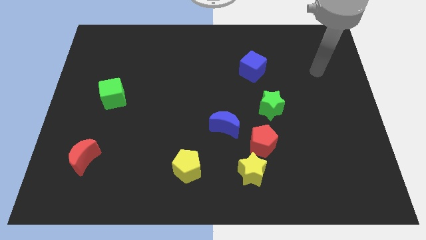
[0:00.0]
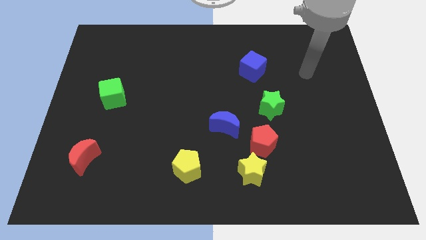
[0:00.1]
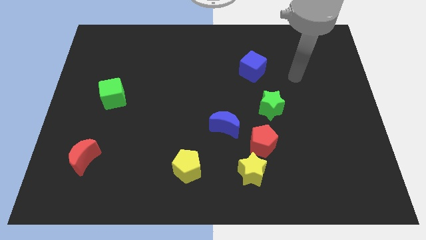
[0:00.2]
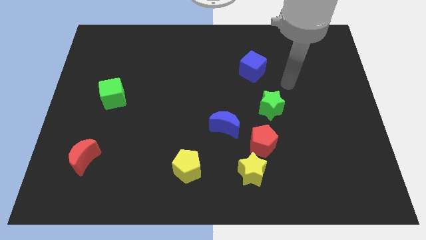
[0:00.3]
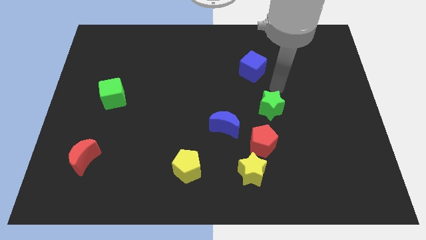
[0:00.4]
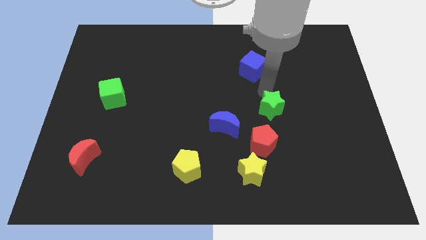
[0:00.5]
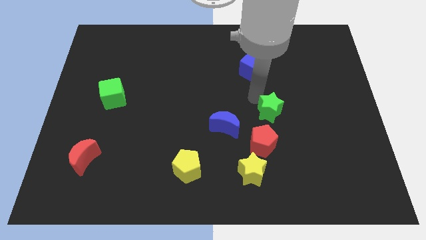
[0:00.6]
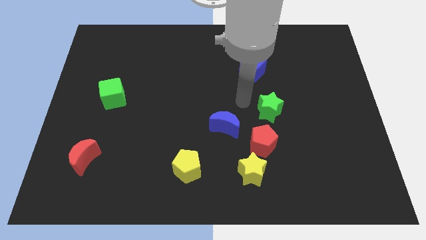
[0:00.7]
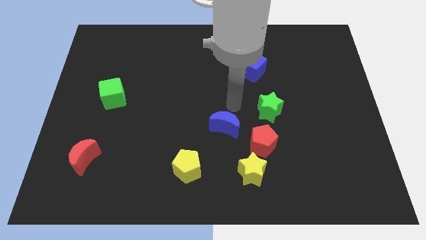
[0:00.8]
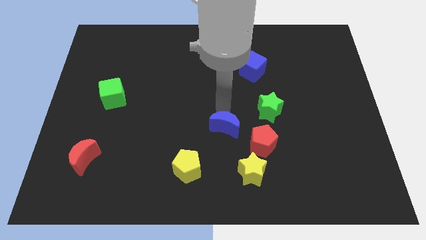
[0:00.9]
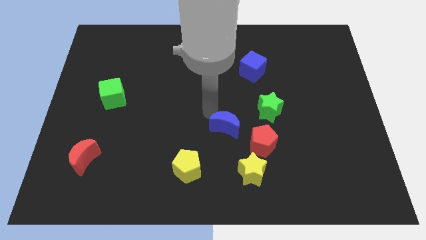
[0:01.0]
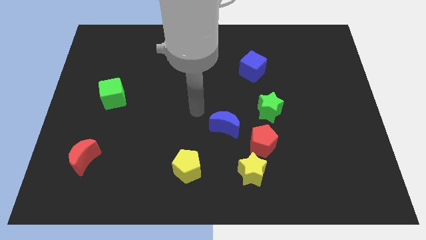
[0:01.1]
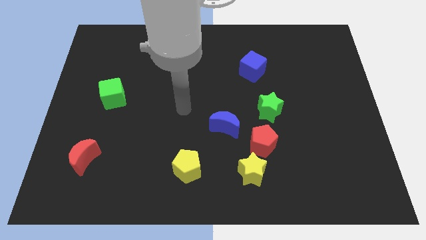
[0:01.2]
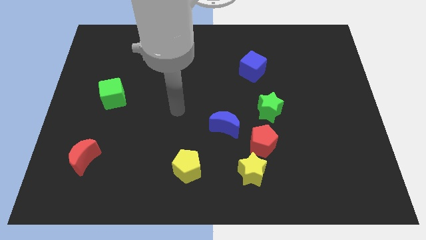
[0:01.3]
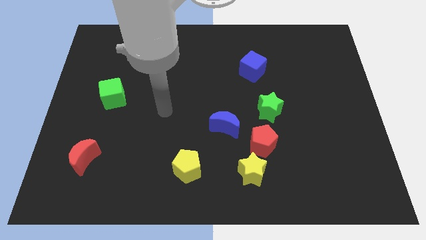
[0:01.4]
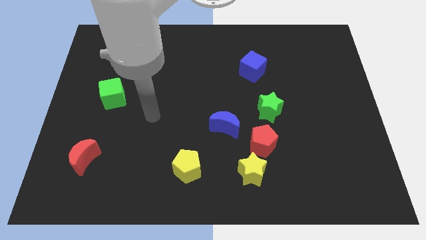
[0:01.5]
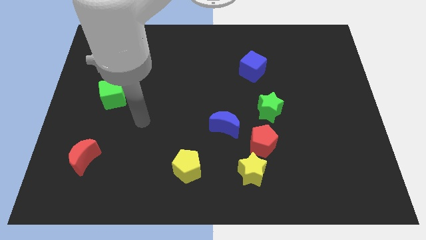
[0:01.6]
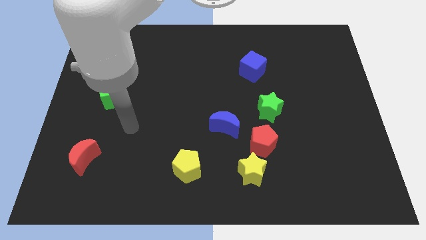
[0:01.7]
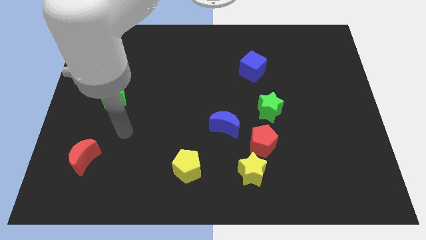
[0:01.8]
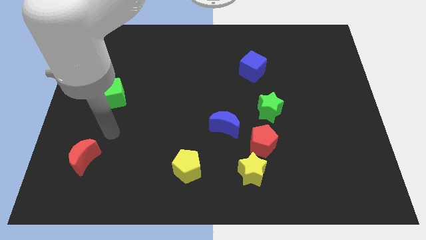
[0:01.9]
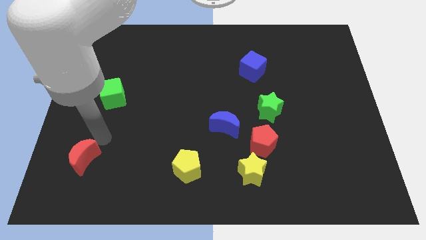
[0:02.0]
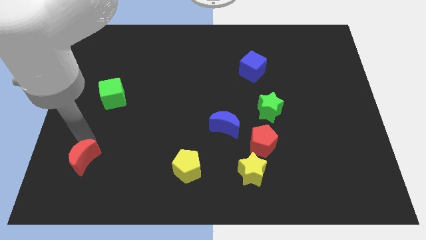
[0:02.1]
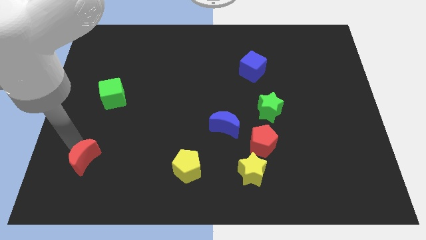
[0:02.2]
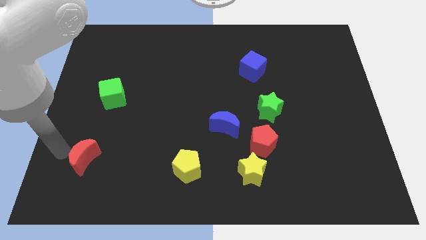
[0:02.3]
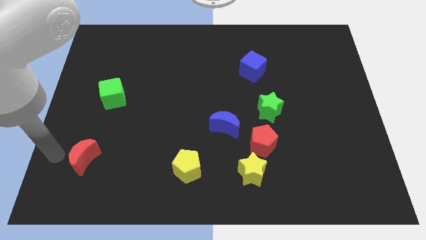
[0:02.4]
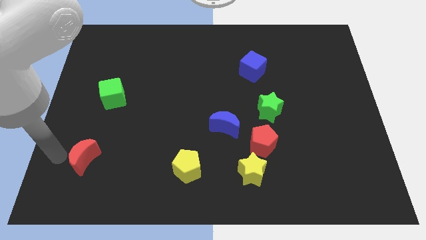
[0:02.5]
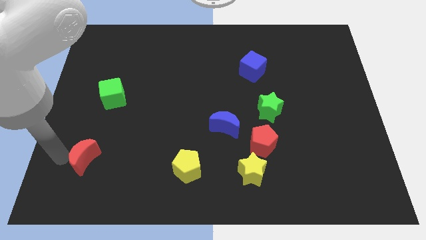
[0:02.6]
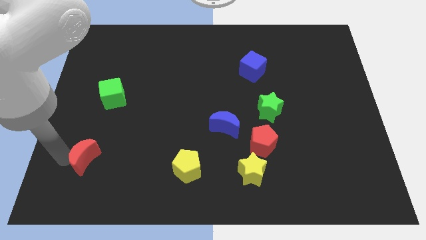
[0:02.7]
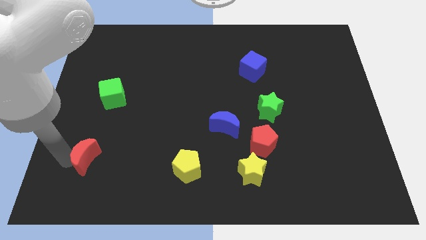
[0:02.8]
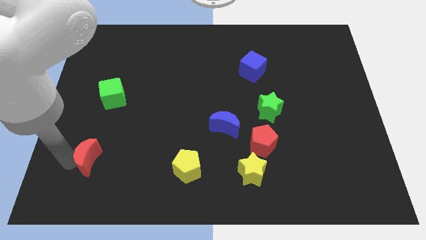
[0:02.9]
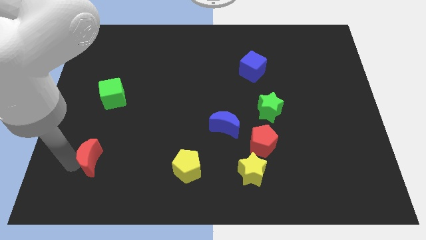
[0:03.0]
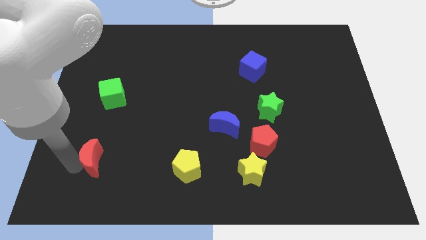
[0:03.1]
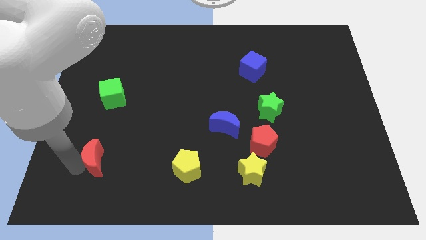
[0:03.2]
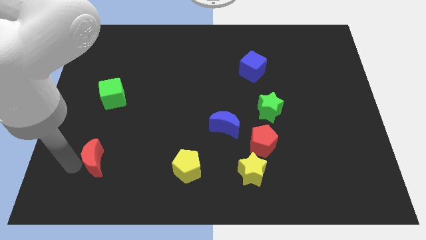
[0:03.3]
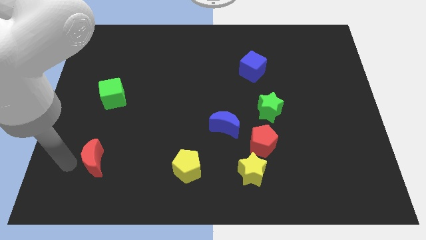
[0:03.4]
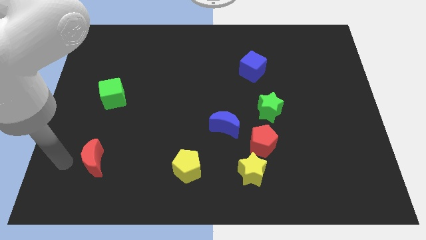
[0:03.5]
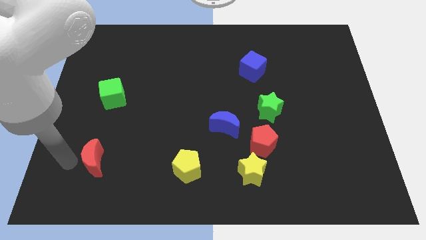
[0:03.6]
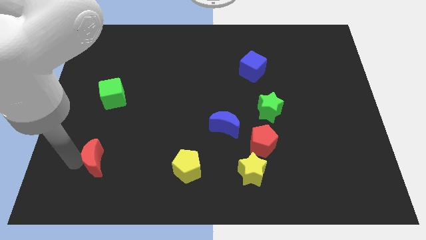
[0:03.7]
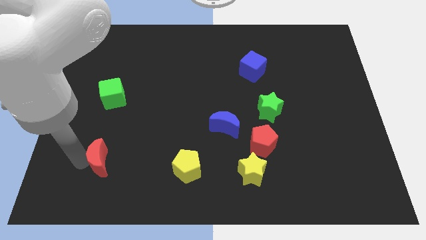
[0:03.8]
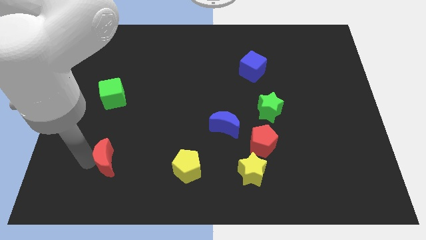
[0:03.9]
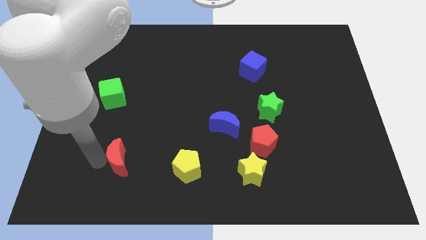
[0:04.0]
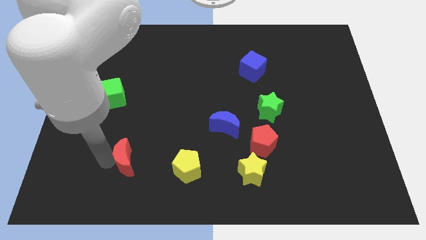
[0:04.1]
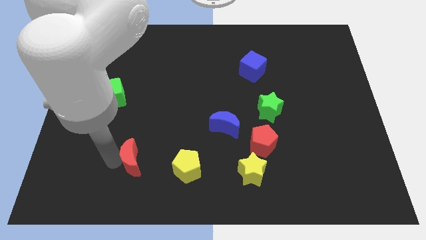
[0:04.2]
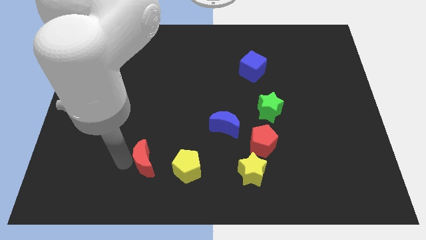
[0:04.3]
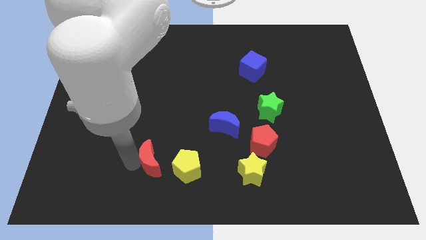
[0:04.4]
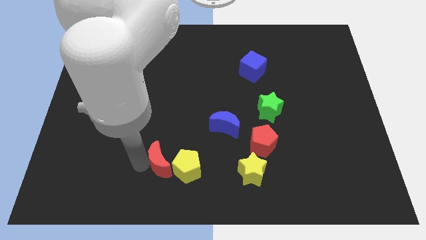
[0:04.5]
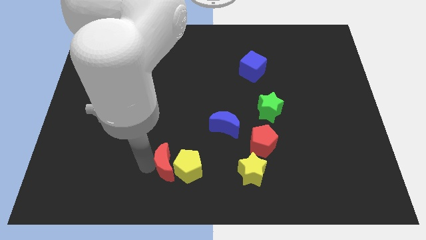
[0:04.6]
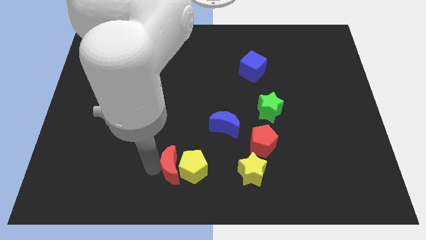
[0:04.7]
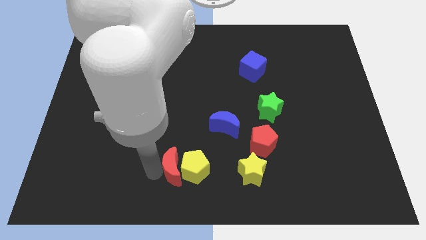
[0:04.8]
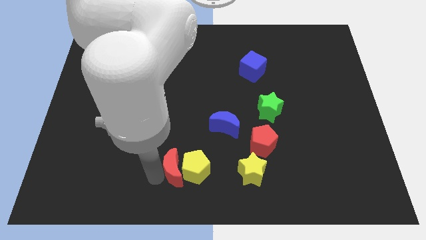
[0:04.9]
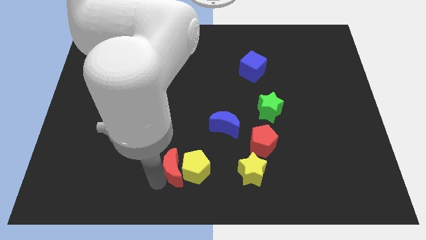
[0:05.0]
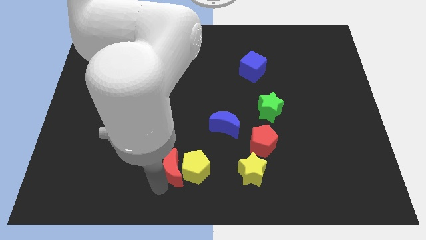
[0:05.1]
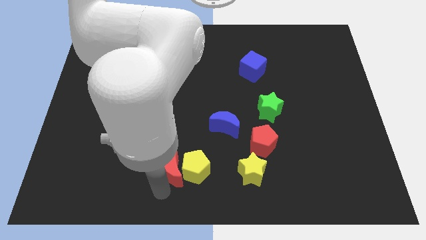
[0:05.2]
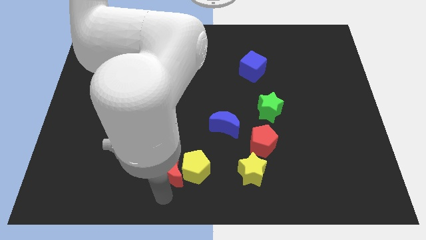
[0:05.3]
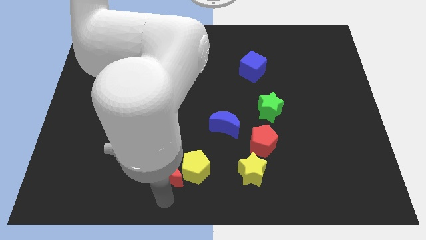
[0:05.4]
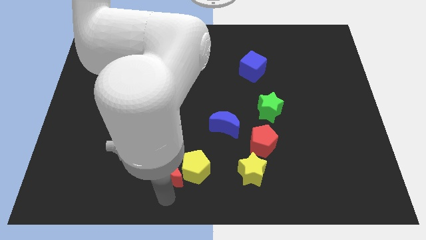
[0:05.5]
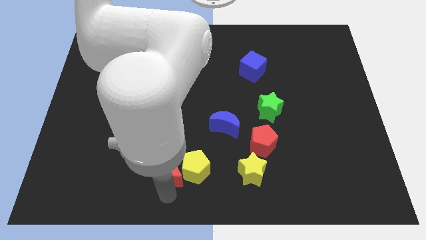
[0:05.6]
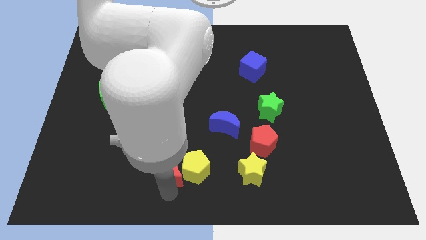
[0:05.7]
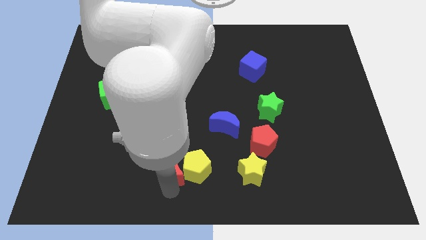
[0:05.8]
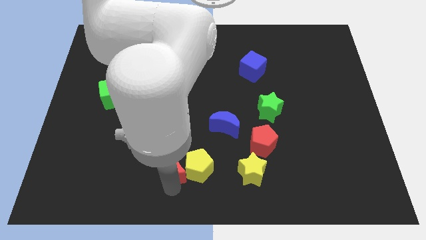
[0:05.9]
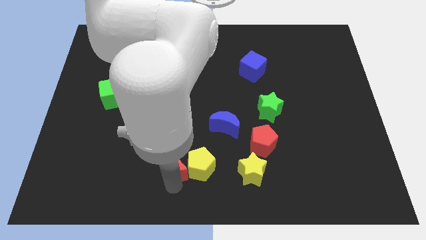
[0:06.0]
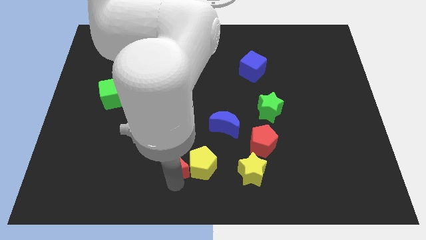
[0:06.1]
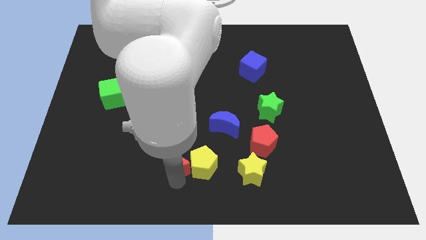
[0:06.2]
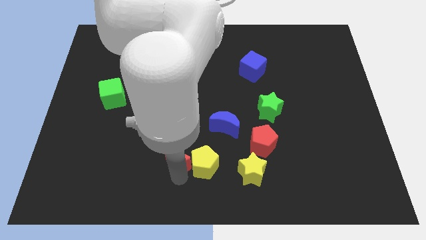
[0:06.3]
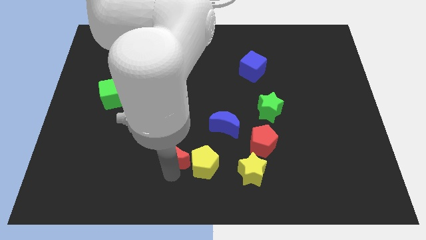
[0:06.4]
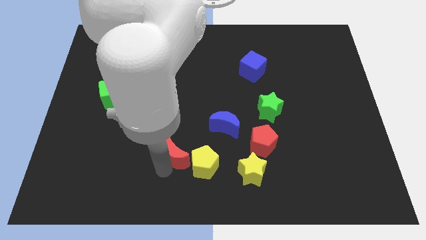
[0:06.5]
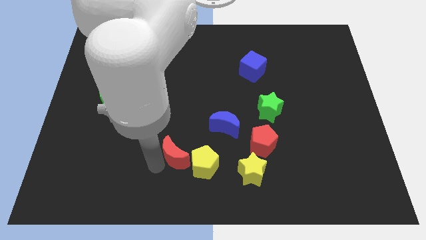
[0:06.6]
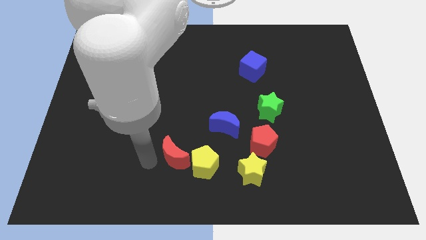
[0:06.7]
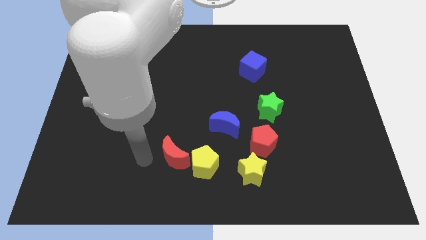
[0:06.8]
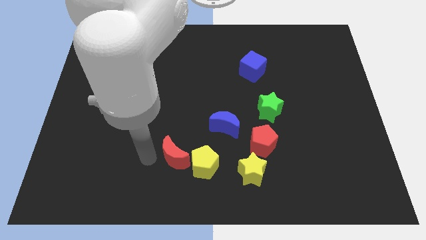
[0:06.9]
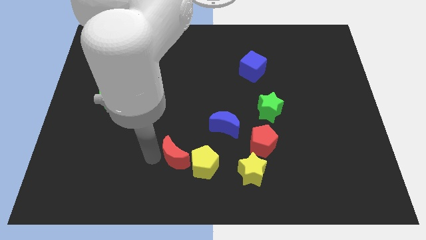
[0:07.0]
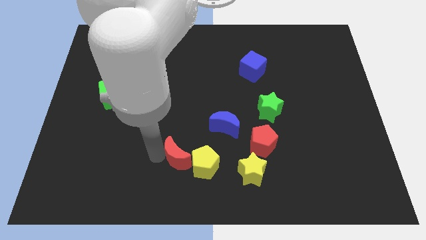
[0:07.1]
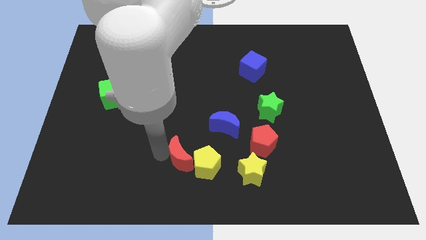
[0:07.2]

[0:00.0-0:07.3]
move the red moon to the right

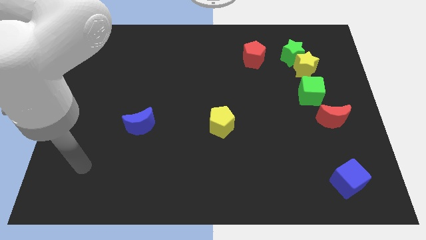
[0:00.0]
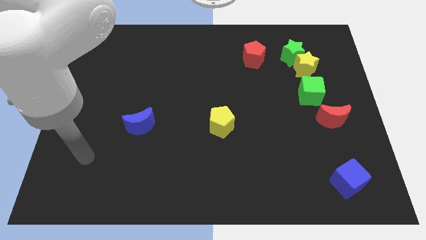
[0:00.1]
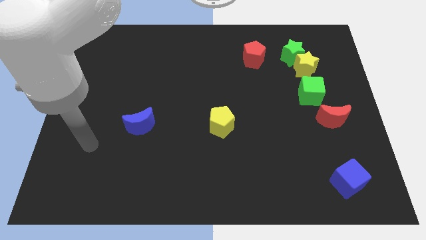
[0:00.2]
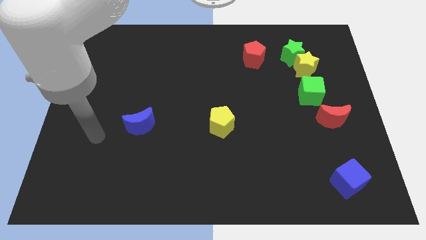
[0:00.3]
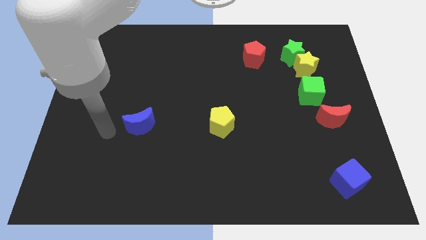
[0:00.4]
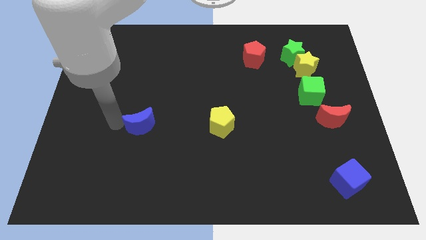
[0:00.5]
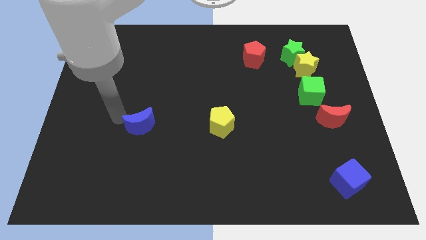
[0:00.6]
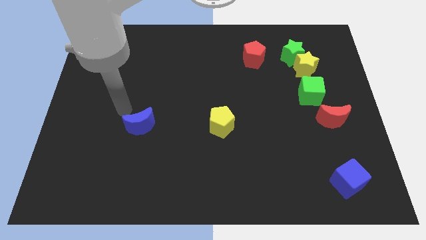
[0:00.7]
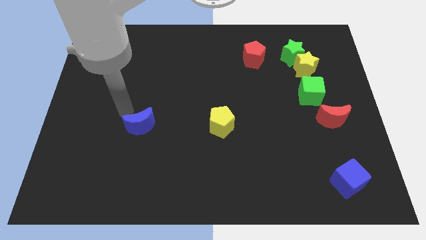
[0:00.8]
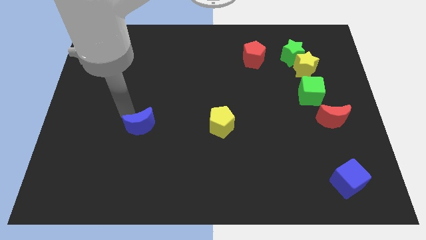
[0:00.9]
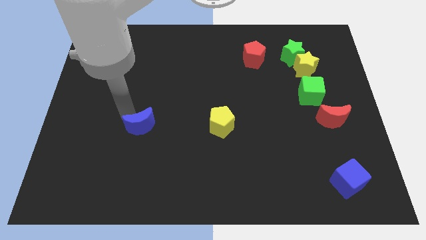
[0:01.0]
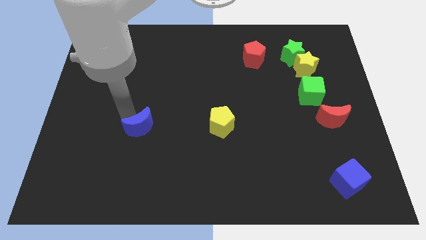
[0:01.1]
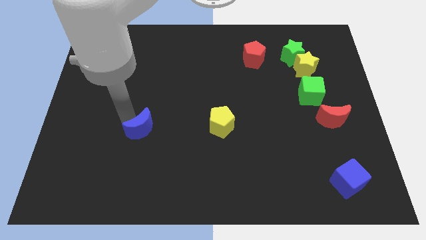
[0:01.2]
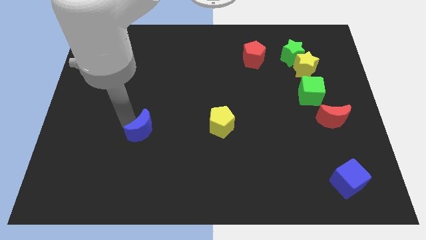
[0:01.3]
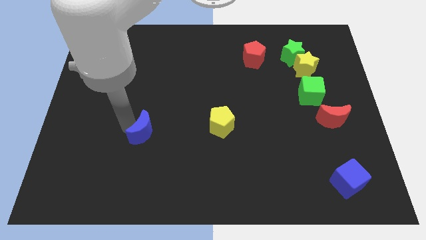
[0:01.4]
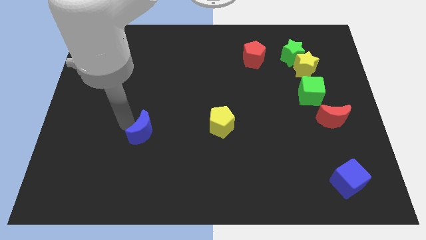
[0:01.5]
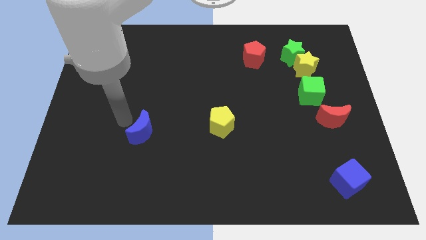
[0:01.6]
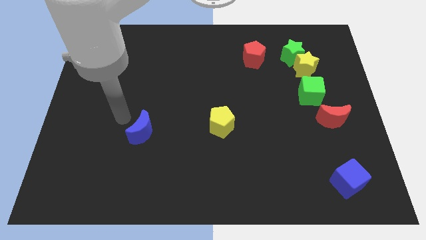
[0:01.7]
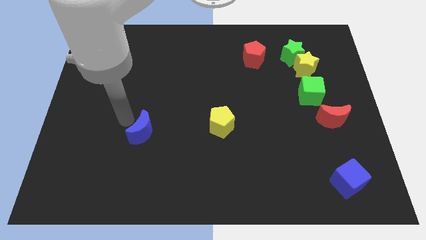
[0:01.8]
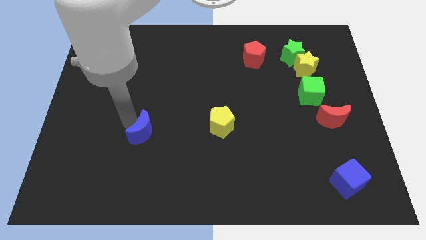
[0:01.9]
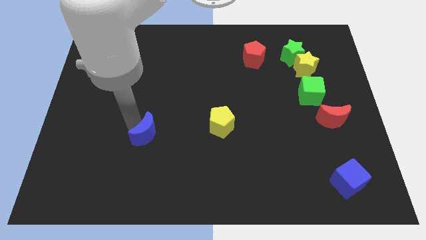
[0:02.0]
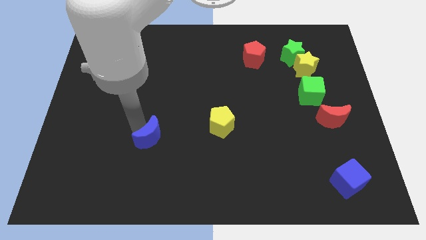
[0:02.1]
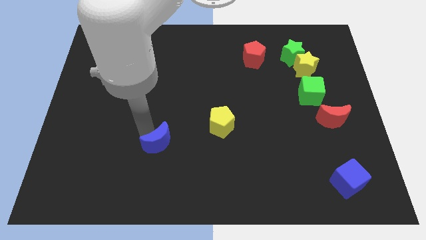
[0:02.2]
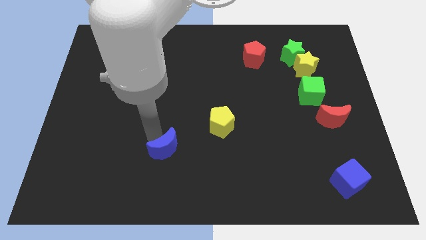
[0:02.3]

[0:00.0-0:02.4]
move the blue moon slightly down and right
